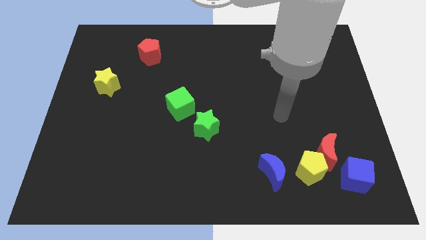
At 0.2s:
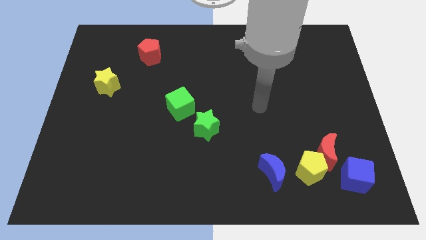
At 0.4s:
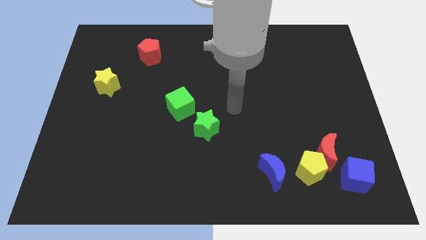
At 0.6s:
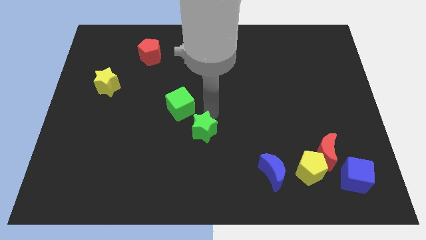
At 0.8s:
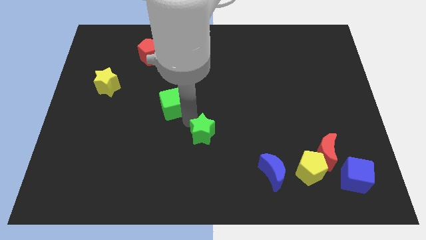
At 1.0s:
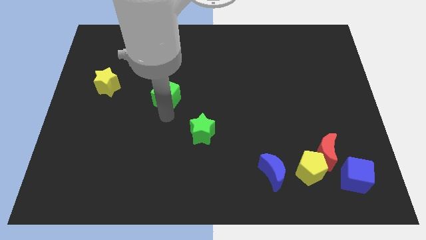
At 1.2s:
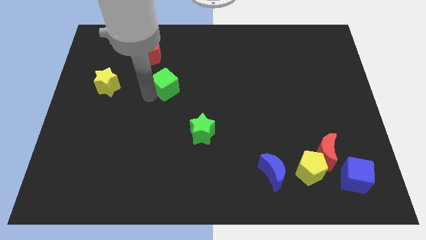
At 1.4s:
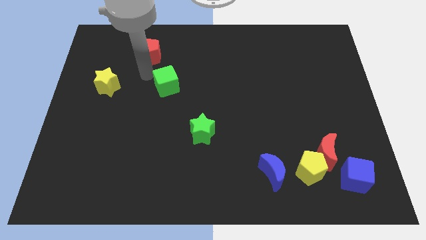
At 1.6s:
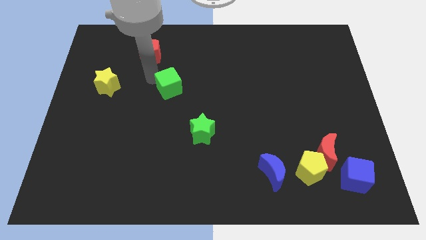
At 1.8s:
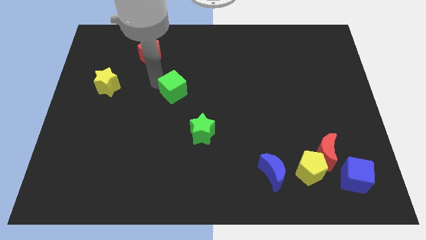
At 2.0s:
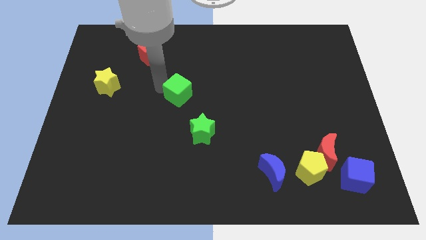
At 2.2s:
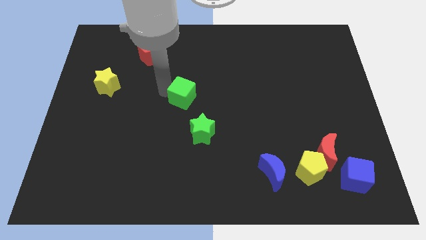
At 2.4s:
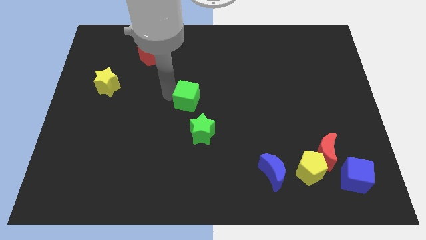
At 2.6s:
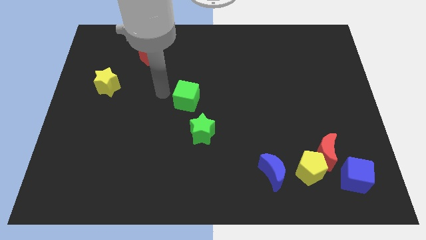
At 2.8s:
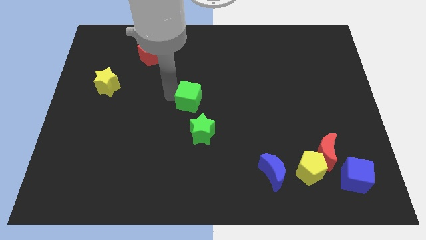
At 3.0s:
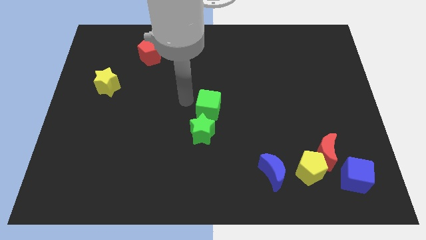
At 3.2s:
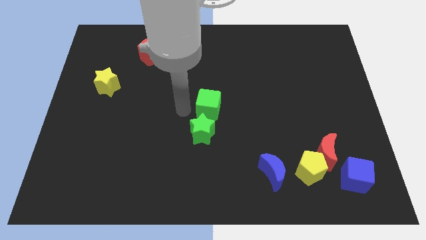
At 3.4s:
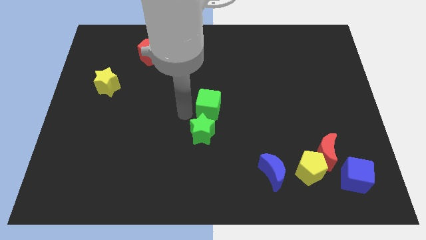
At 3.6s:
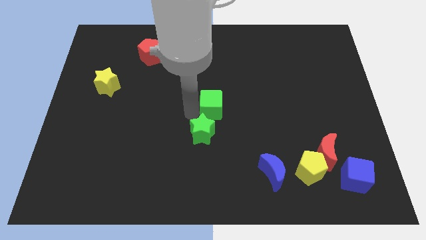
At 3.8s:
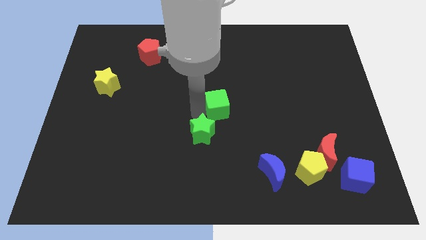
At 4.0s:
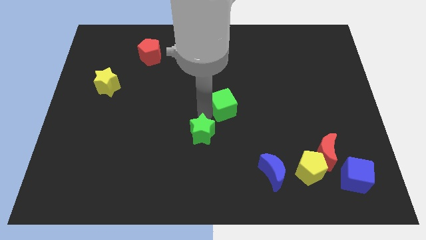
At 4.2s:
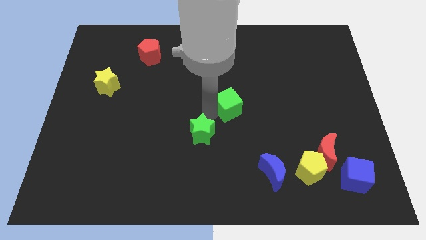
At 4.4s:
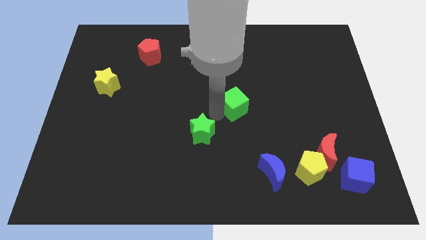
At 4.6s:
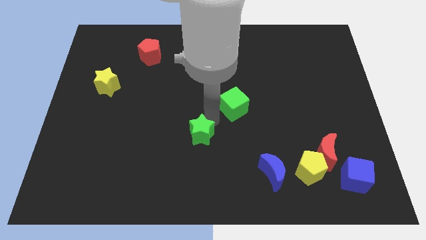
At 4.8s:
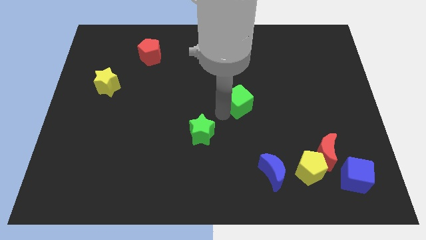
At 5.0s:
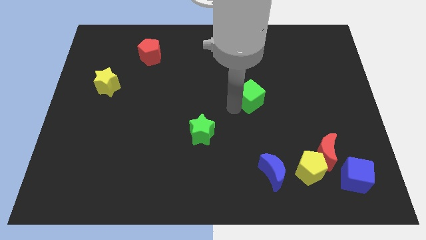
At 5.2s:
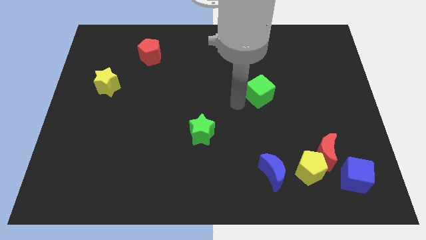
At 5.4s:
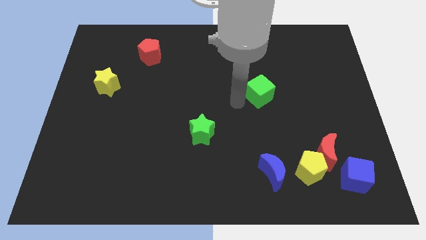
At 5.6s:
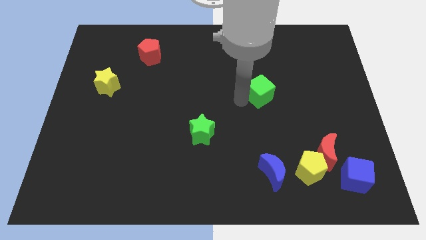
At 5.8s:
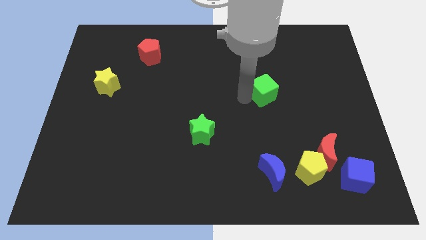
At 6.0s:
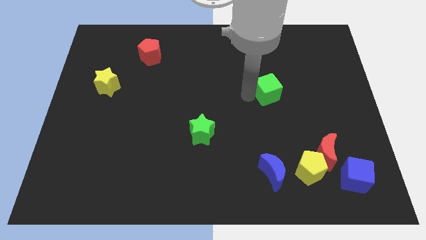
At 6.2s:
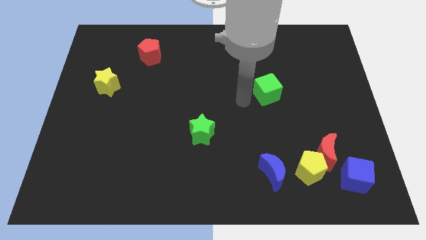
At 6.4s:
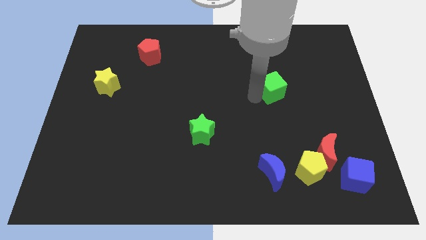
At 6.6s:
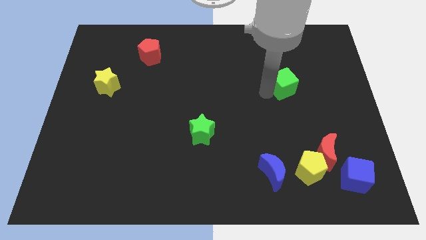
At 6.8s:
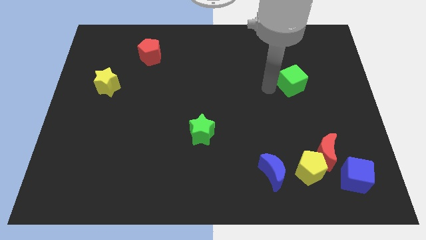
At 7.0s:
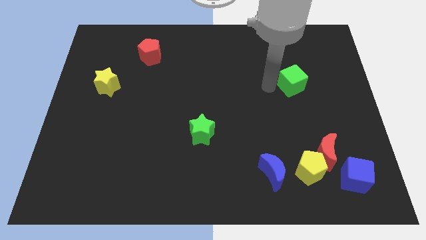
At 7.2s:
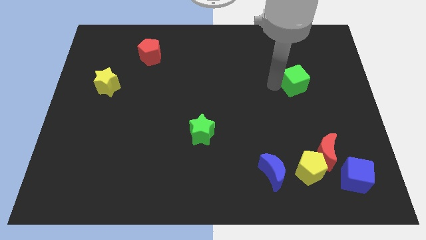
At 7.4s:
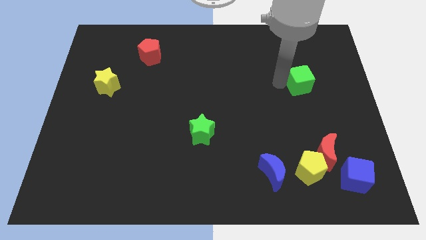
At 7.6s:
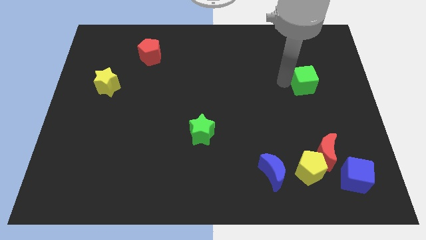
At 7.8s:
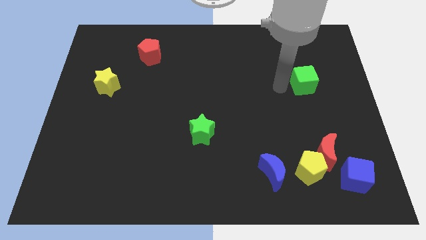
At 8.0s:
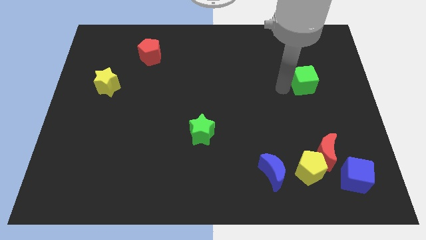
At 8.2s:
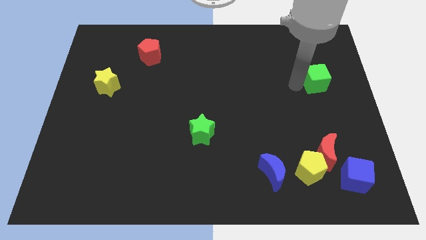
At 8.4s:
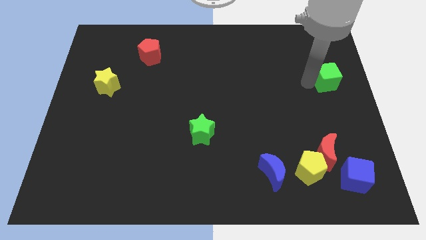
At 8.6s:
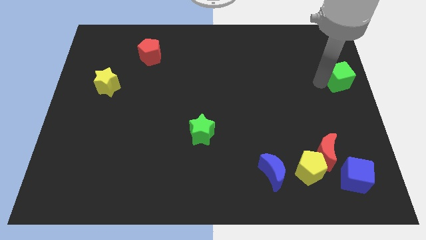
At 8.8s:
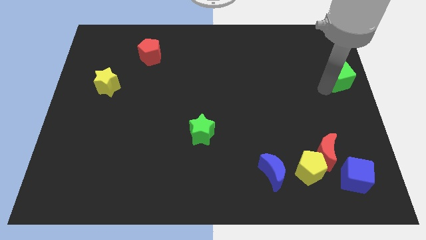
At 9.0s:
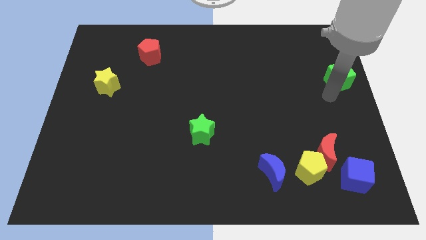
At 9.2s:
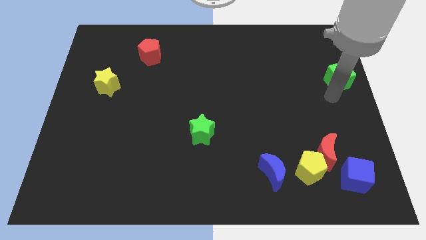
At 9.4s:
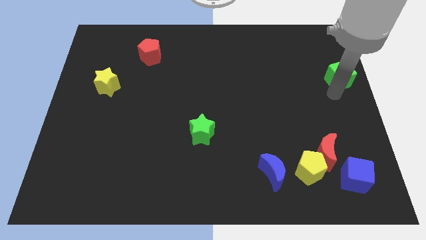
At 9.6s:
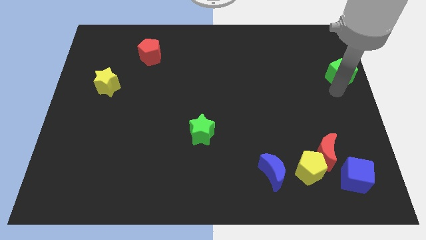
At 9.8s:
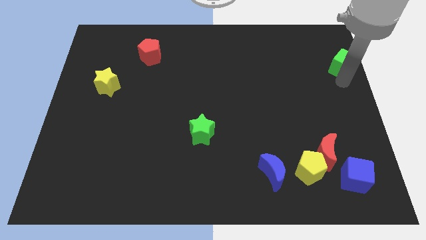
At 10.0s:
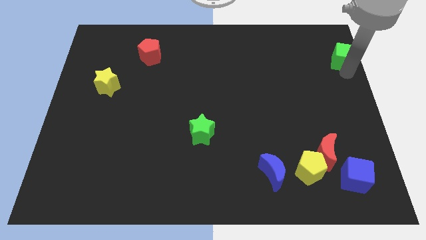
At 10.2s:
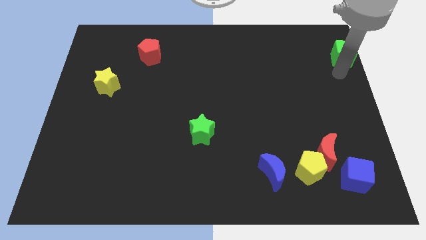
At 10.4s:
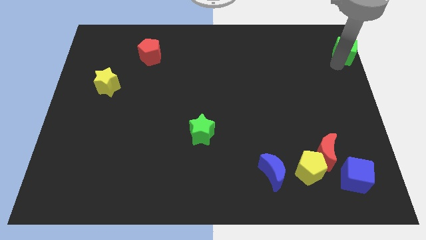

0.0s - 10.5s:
put the green cube to the top right corner

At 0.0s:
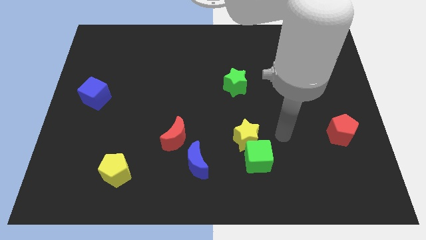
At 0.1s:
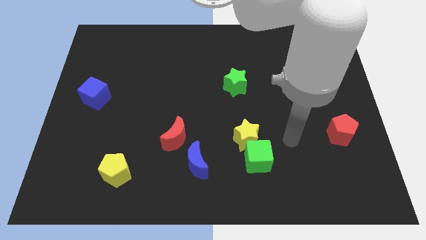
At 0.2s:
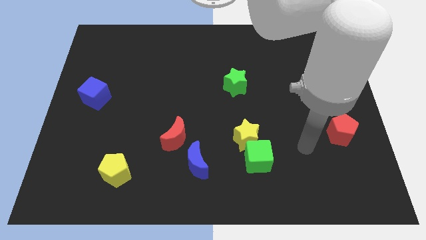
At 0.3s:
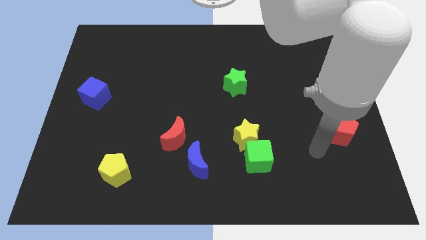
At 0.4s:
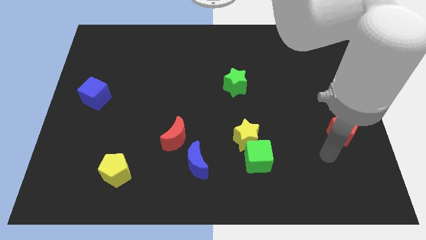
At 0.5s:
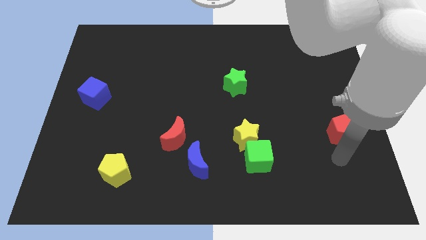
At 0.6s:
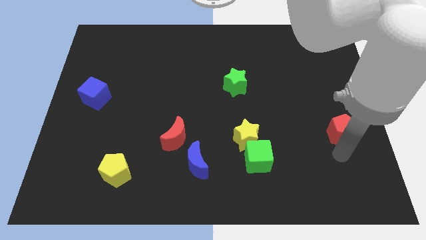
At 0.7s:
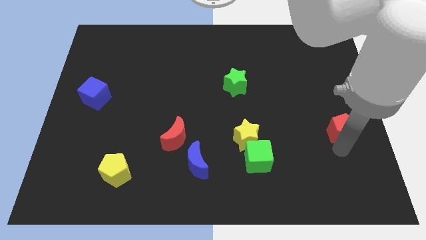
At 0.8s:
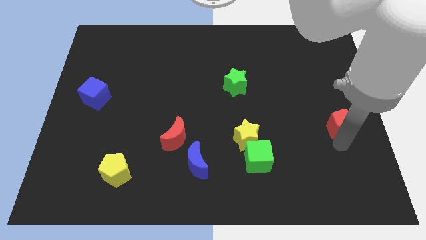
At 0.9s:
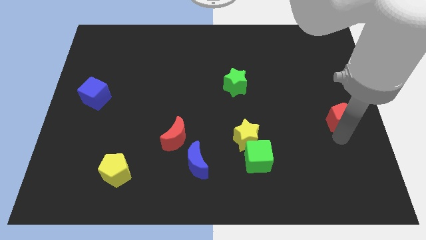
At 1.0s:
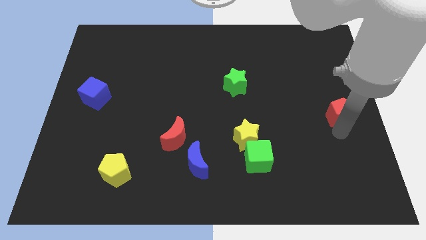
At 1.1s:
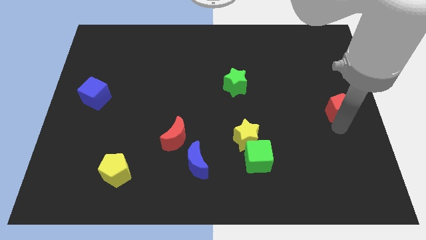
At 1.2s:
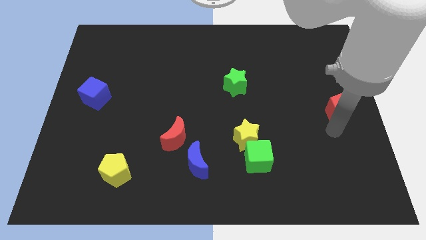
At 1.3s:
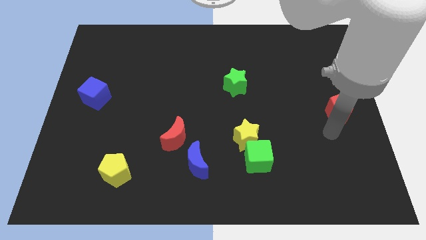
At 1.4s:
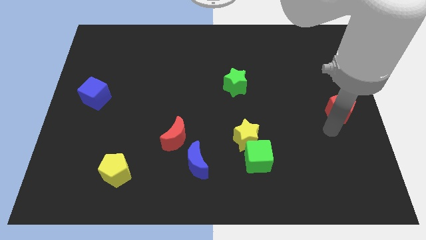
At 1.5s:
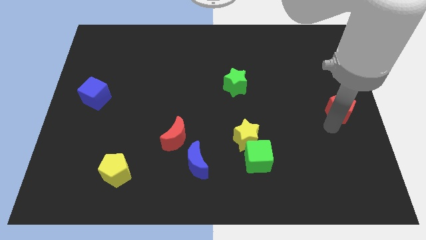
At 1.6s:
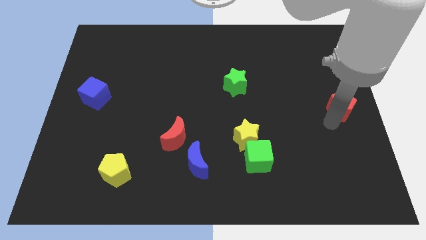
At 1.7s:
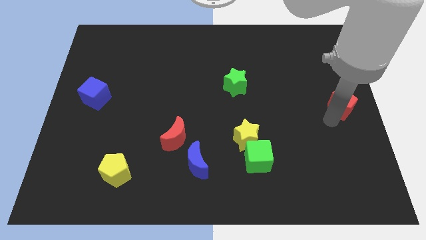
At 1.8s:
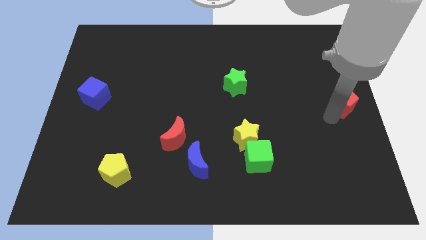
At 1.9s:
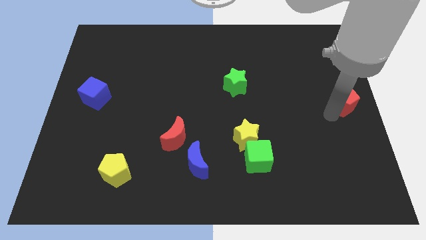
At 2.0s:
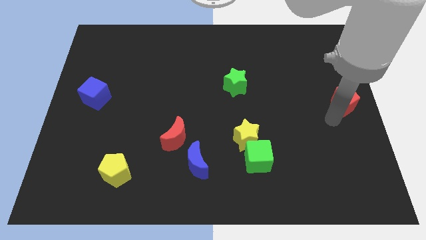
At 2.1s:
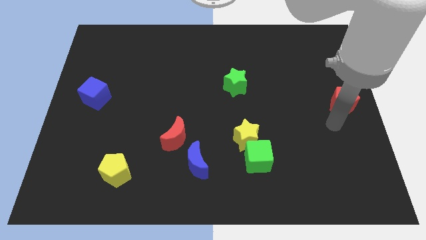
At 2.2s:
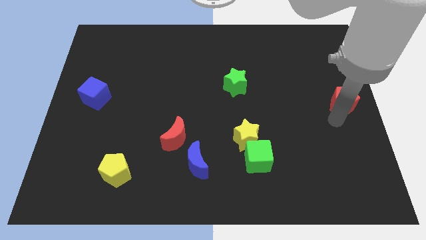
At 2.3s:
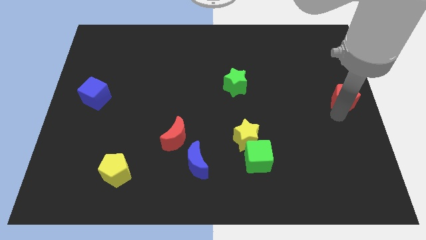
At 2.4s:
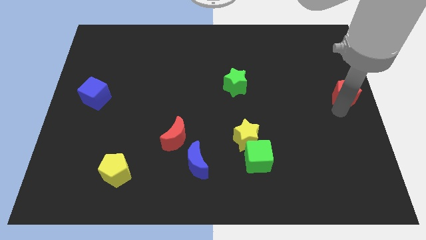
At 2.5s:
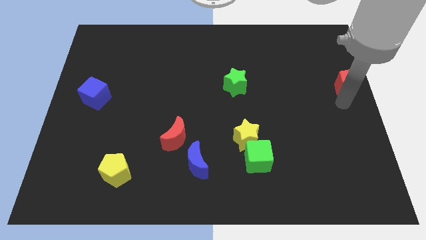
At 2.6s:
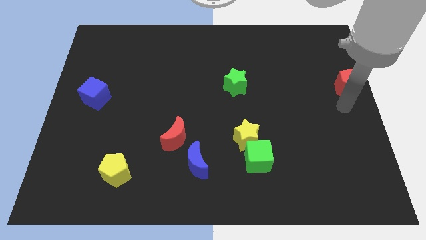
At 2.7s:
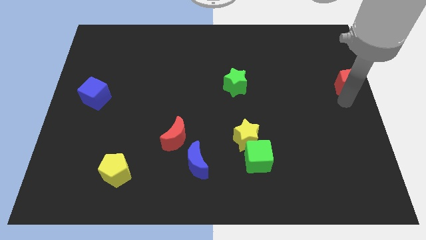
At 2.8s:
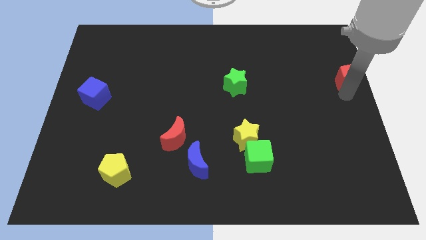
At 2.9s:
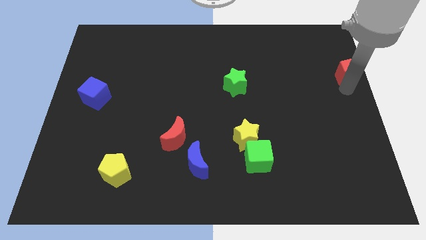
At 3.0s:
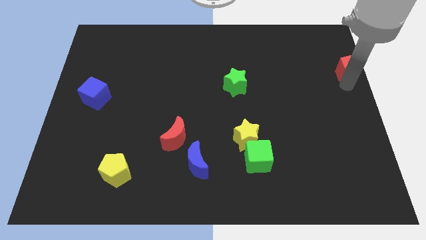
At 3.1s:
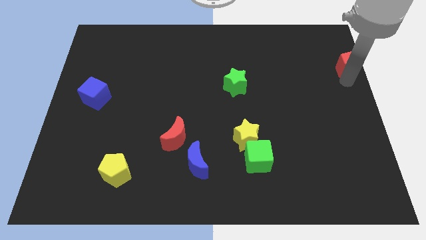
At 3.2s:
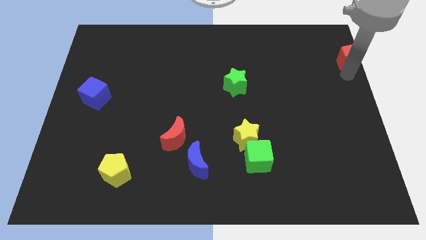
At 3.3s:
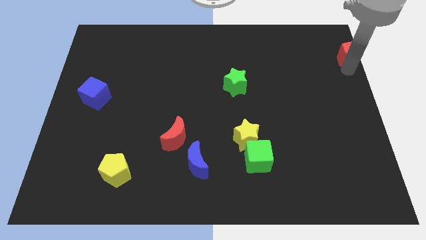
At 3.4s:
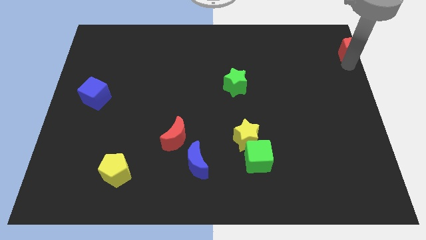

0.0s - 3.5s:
put the red pentagon to the top right of the board
